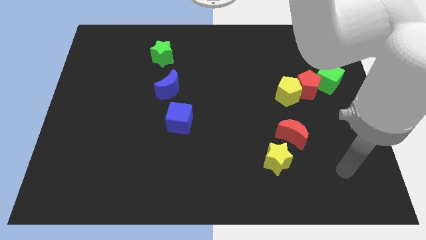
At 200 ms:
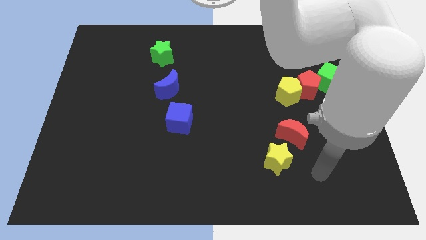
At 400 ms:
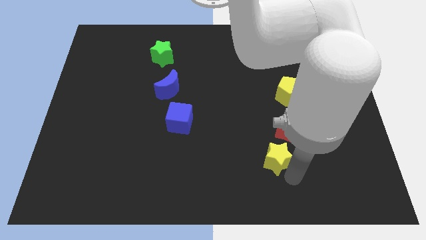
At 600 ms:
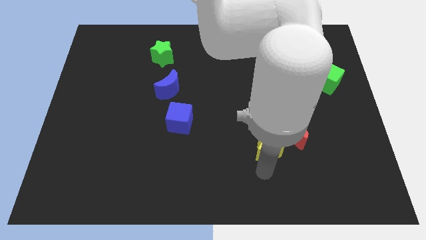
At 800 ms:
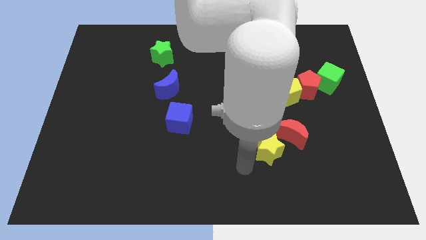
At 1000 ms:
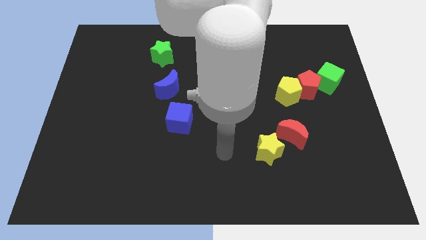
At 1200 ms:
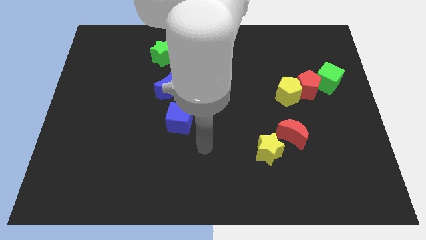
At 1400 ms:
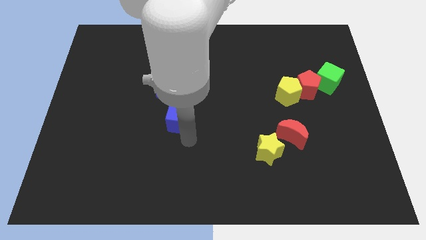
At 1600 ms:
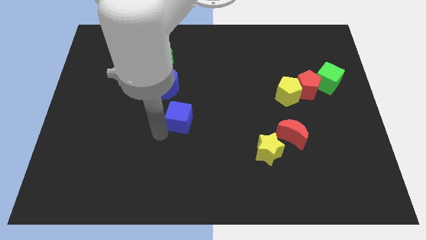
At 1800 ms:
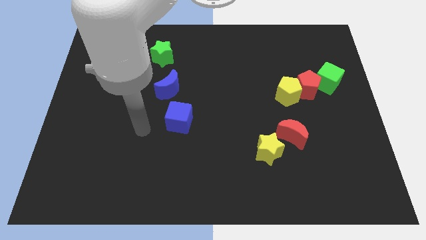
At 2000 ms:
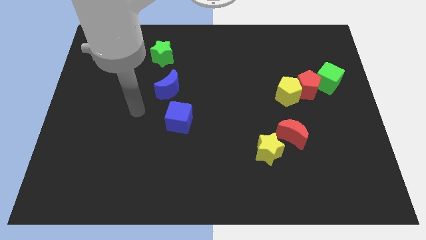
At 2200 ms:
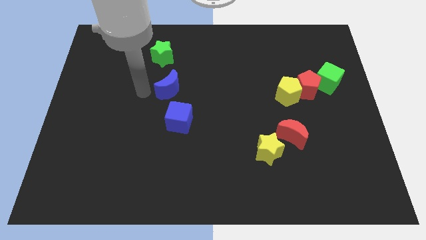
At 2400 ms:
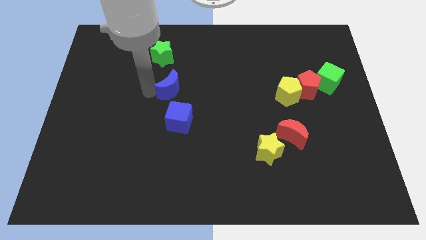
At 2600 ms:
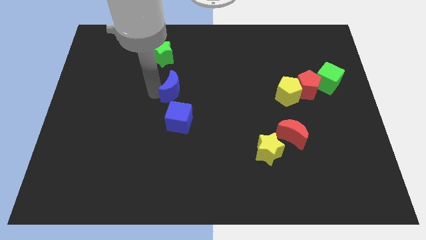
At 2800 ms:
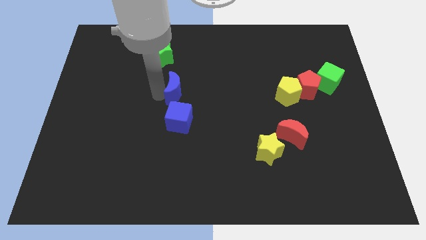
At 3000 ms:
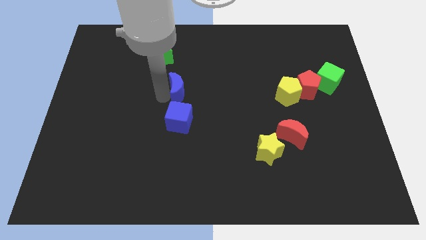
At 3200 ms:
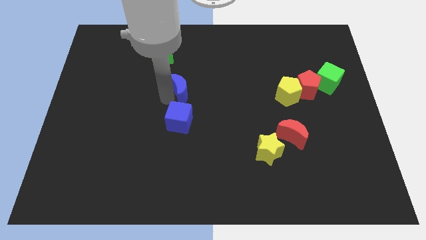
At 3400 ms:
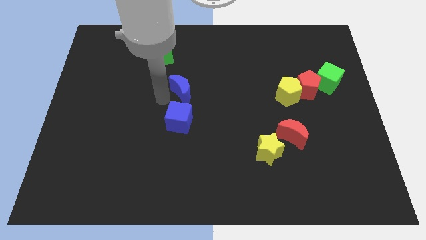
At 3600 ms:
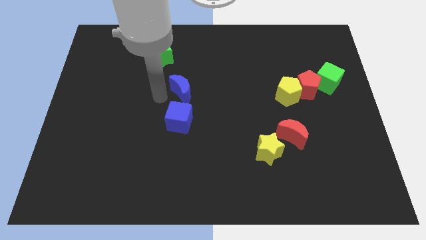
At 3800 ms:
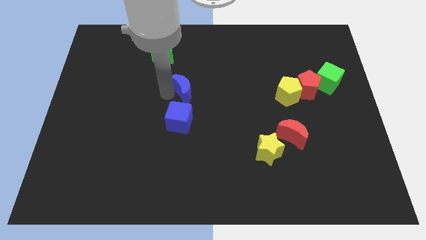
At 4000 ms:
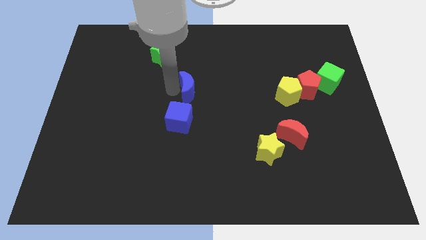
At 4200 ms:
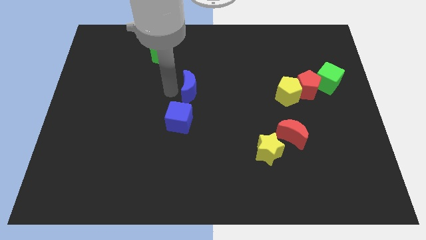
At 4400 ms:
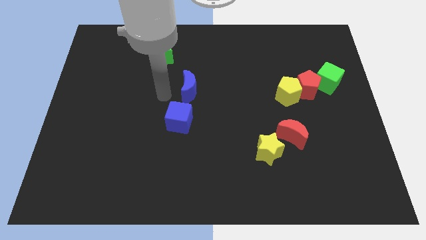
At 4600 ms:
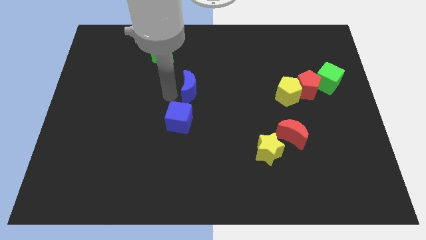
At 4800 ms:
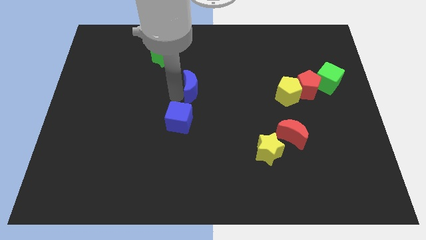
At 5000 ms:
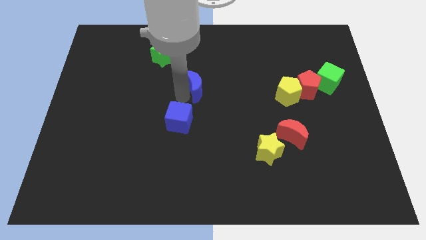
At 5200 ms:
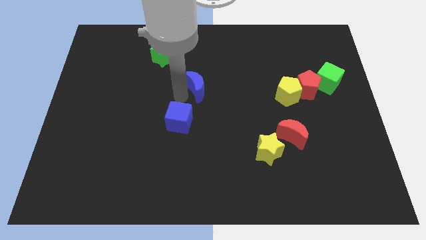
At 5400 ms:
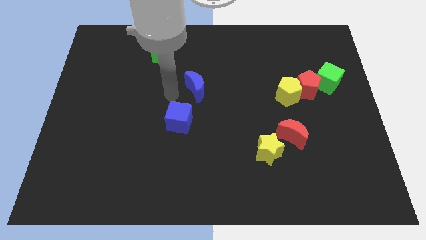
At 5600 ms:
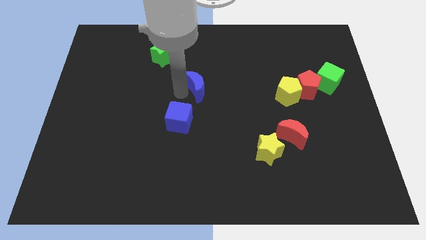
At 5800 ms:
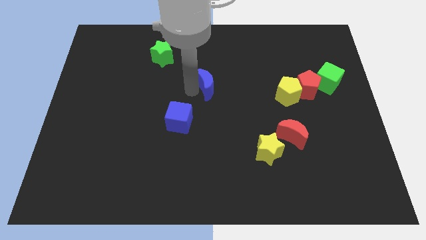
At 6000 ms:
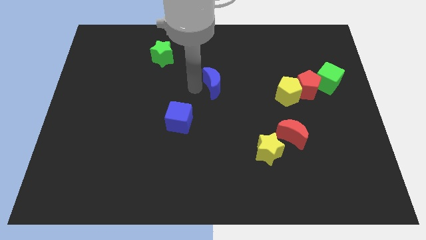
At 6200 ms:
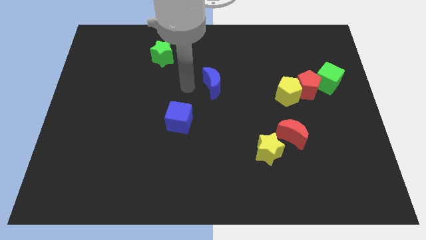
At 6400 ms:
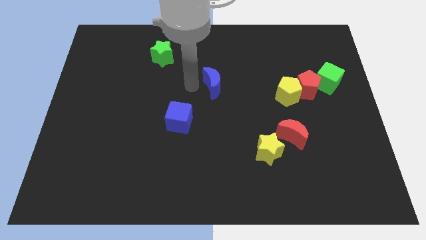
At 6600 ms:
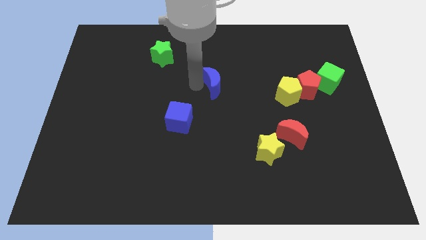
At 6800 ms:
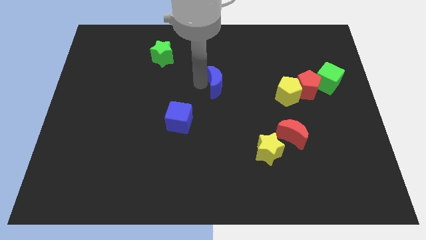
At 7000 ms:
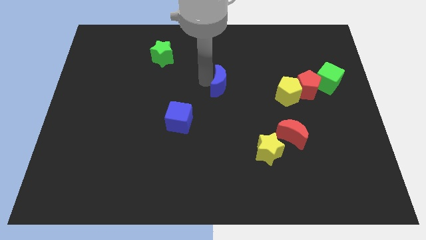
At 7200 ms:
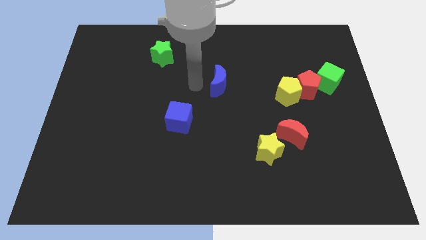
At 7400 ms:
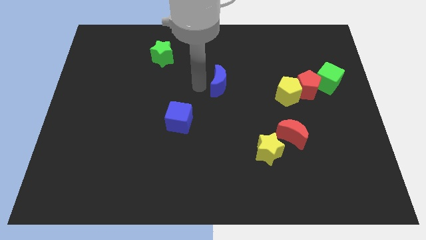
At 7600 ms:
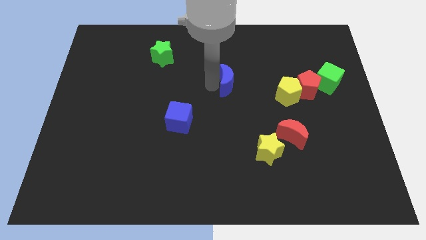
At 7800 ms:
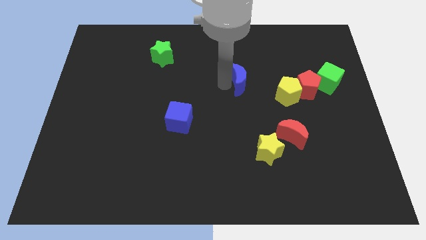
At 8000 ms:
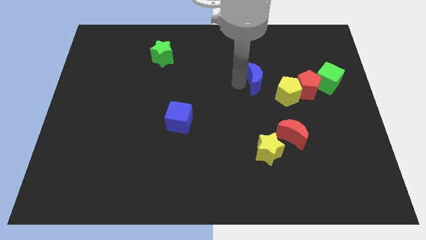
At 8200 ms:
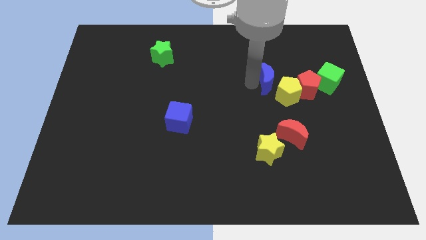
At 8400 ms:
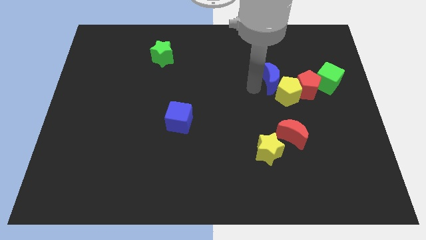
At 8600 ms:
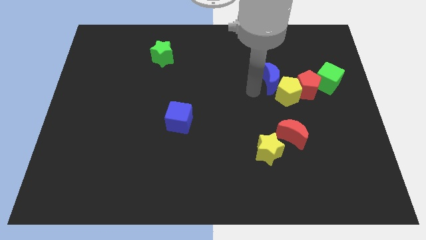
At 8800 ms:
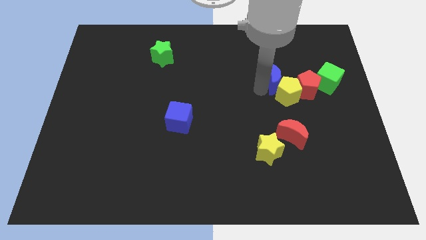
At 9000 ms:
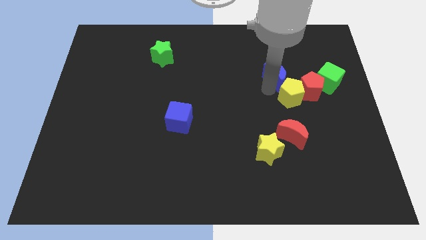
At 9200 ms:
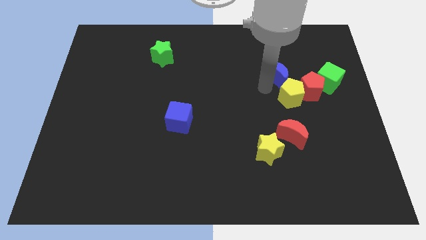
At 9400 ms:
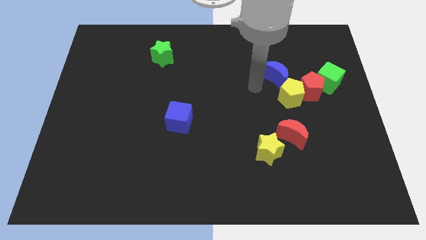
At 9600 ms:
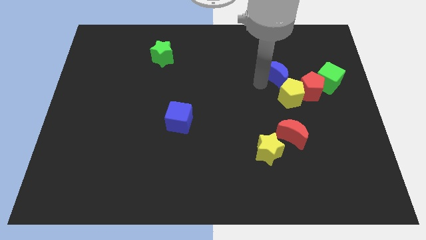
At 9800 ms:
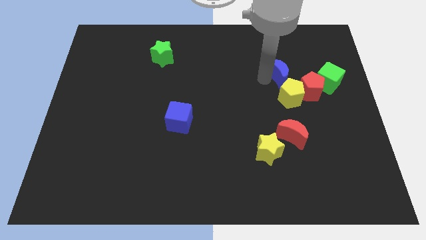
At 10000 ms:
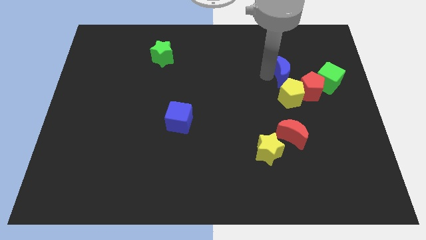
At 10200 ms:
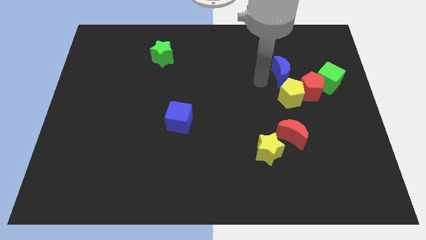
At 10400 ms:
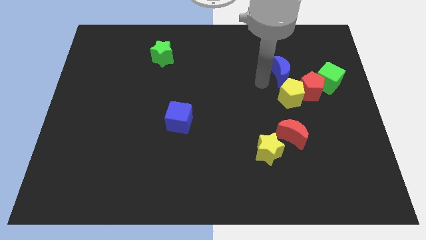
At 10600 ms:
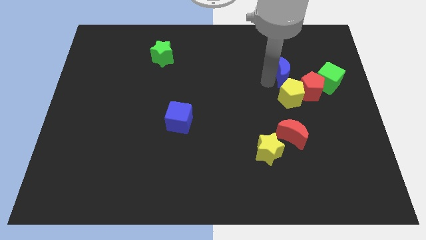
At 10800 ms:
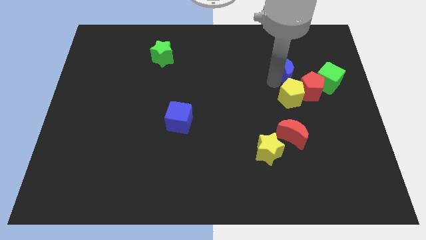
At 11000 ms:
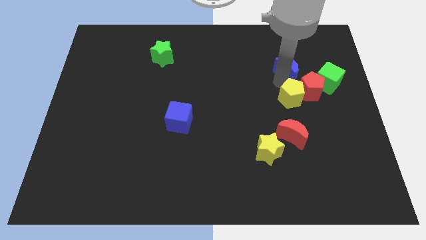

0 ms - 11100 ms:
slide the blue moon diagonally up and to the left of the green cube

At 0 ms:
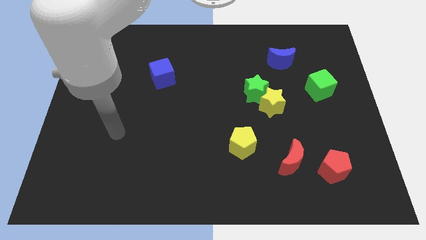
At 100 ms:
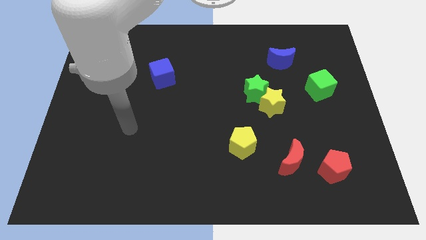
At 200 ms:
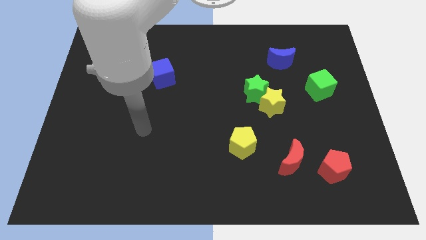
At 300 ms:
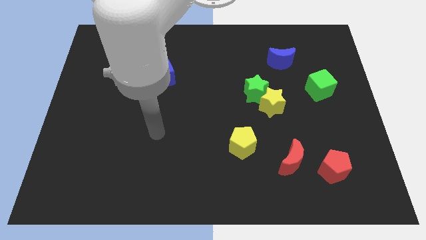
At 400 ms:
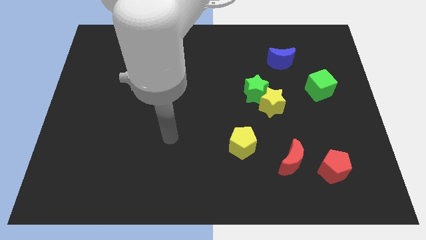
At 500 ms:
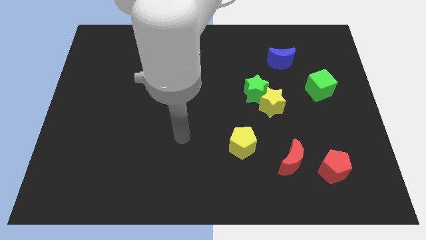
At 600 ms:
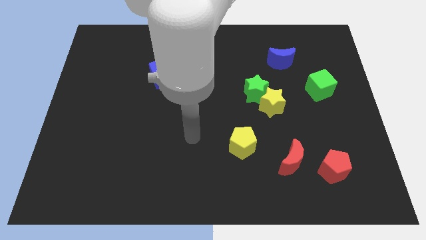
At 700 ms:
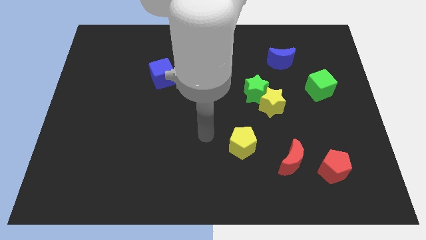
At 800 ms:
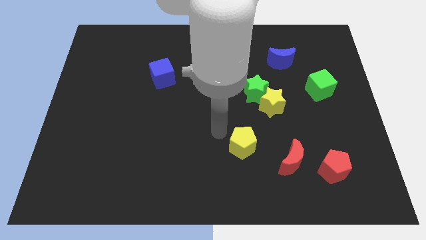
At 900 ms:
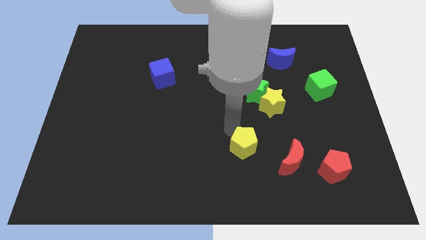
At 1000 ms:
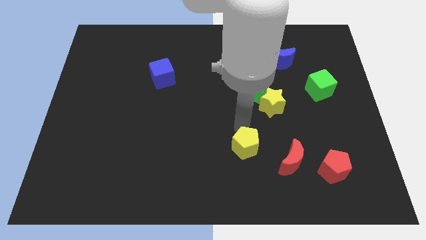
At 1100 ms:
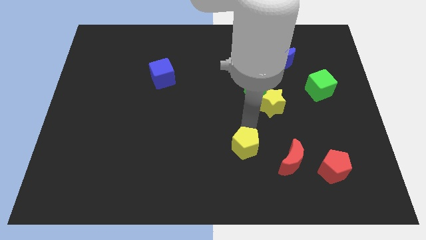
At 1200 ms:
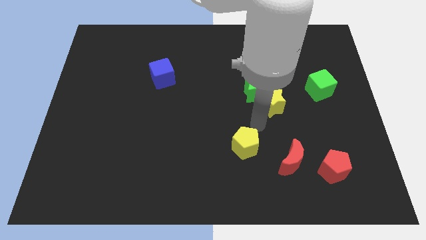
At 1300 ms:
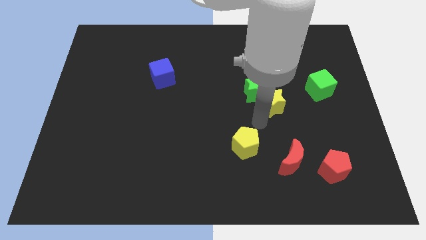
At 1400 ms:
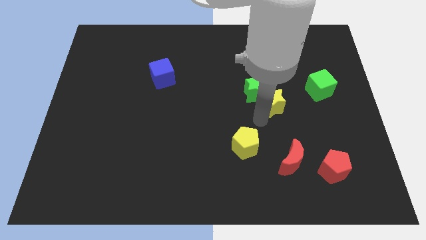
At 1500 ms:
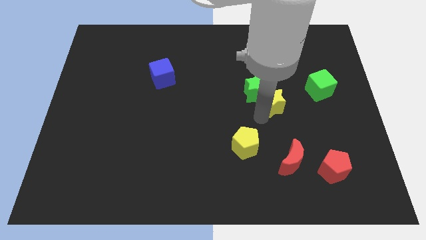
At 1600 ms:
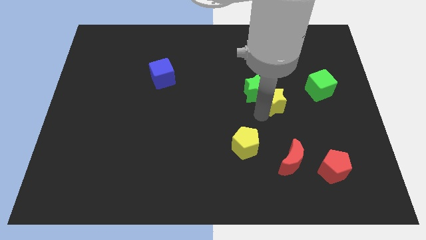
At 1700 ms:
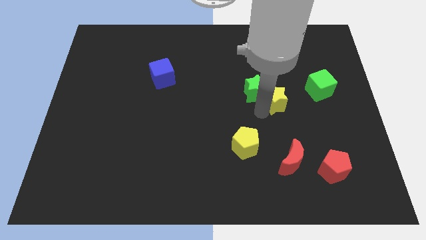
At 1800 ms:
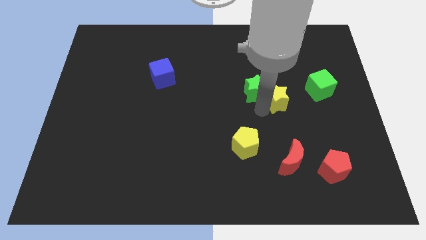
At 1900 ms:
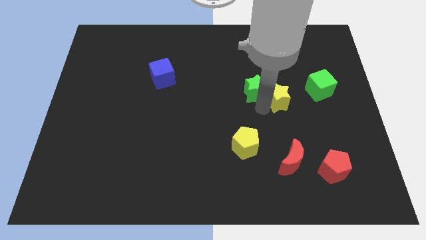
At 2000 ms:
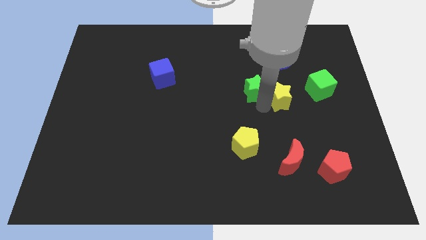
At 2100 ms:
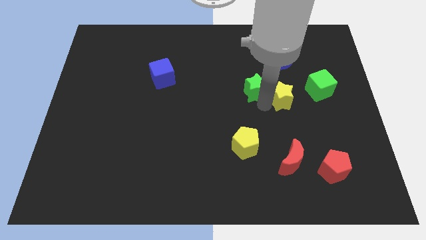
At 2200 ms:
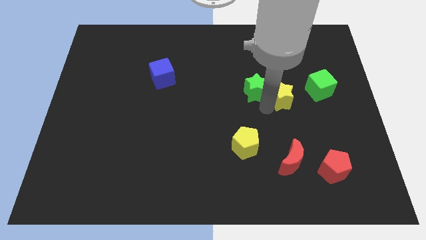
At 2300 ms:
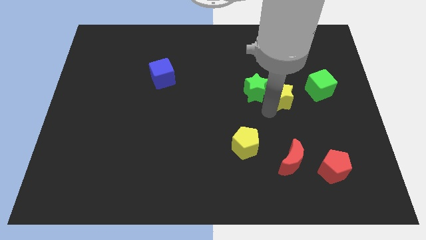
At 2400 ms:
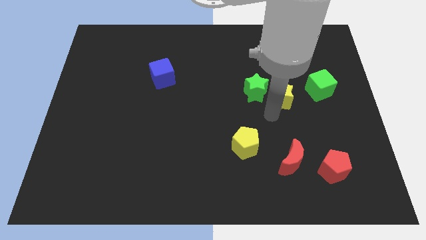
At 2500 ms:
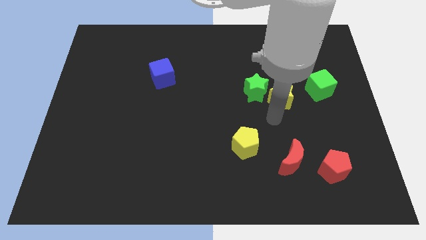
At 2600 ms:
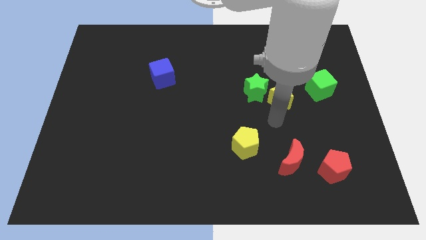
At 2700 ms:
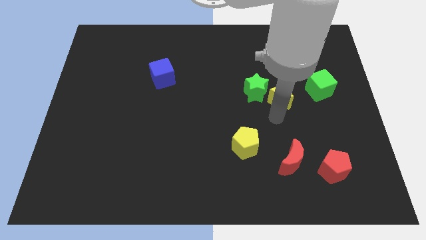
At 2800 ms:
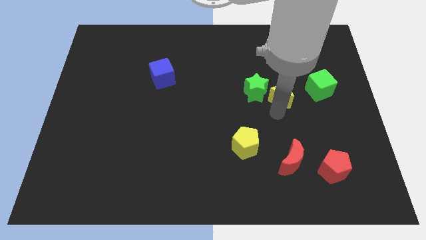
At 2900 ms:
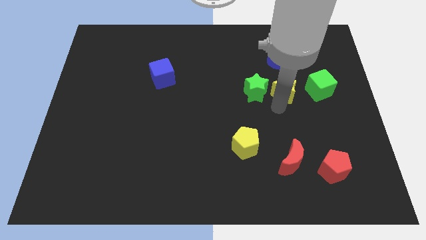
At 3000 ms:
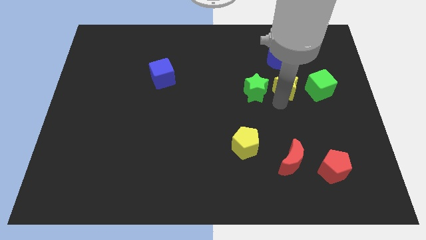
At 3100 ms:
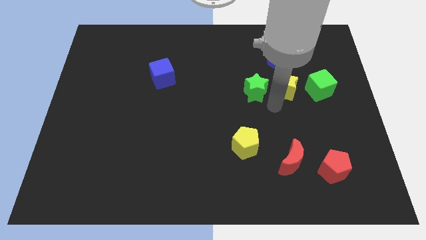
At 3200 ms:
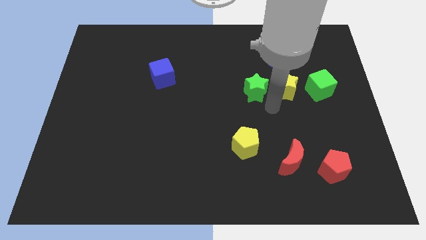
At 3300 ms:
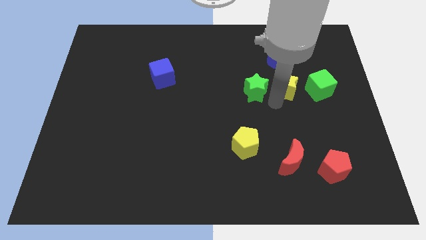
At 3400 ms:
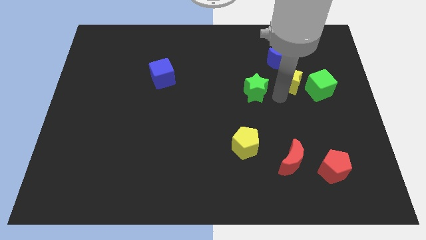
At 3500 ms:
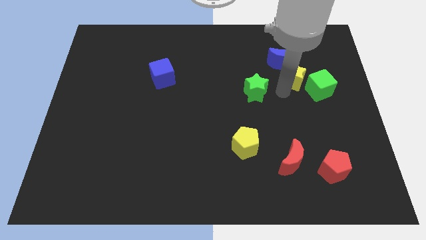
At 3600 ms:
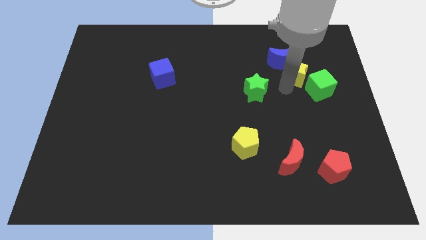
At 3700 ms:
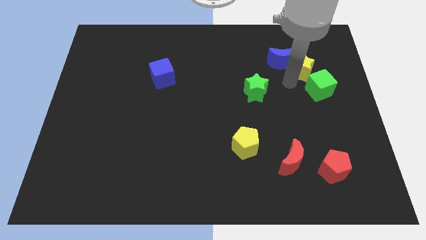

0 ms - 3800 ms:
slide the yellow star above the green cube
